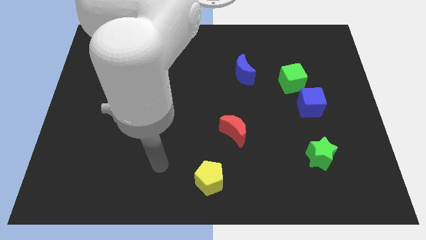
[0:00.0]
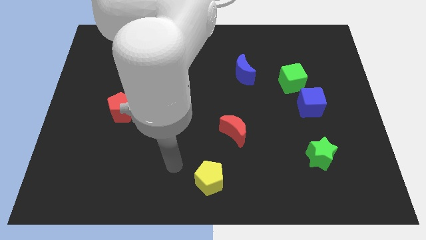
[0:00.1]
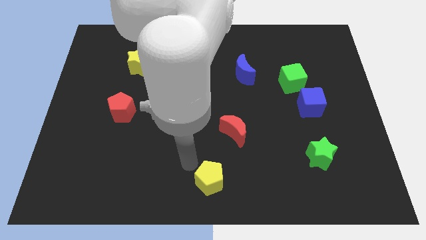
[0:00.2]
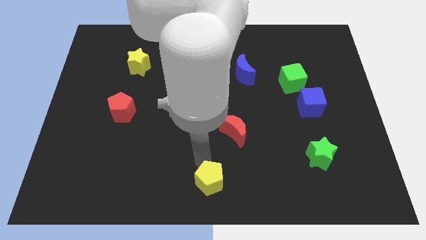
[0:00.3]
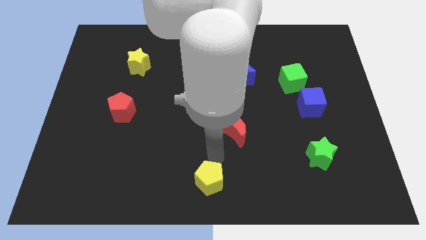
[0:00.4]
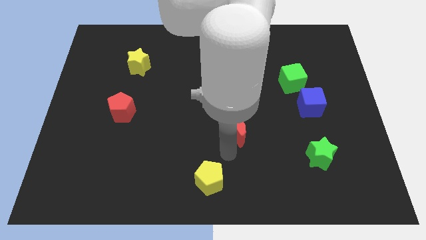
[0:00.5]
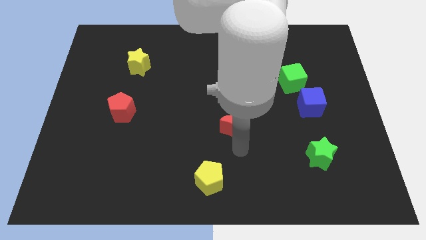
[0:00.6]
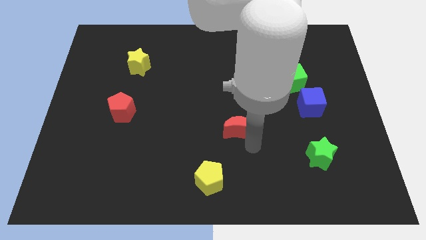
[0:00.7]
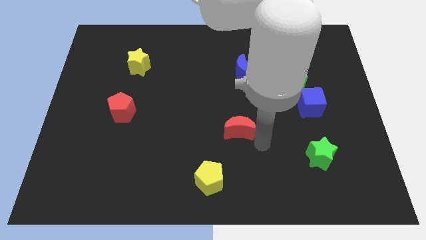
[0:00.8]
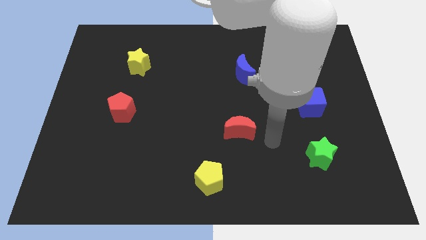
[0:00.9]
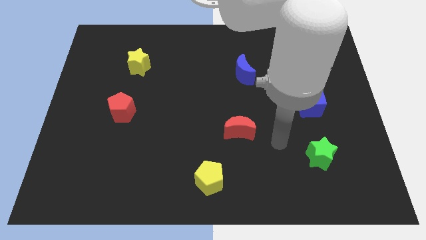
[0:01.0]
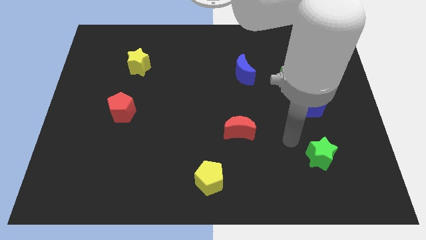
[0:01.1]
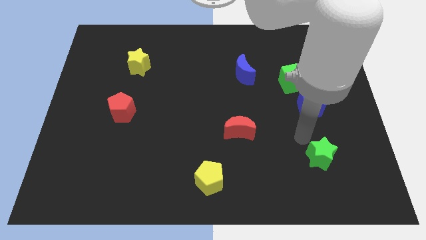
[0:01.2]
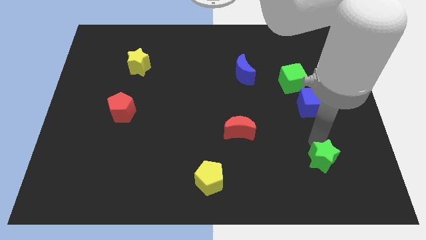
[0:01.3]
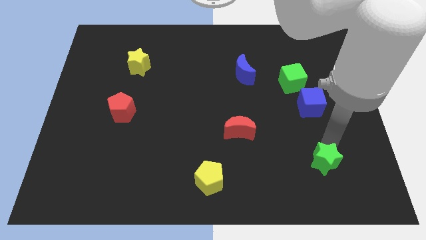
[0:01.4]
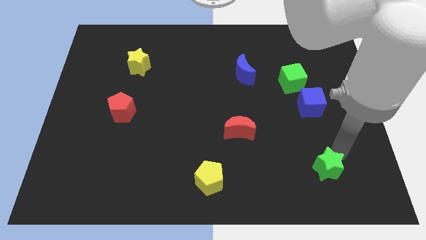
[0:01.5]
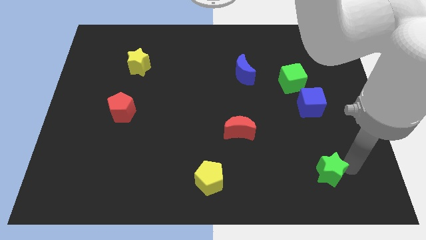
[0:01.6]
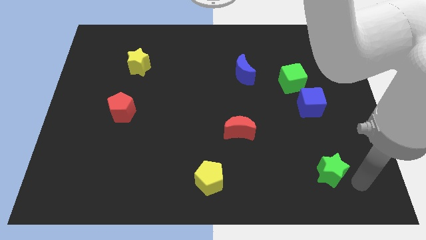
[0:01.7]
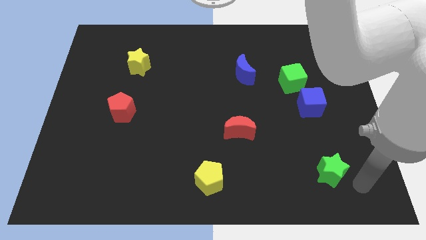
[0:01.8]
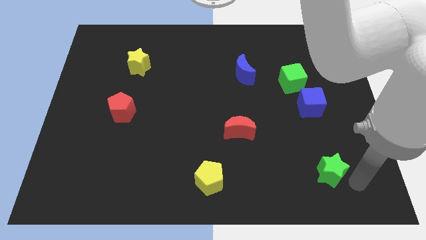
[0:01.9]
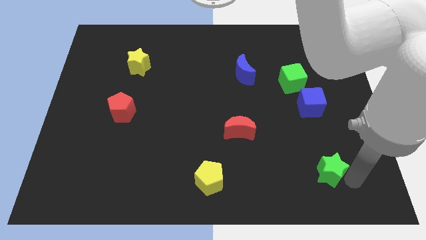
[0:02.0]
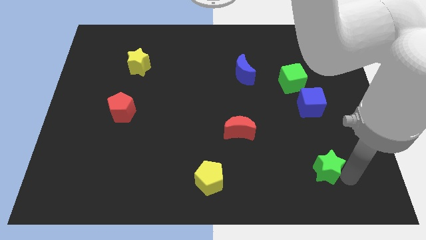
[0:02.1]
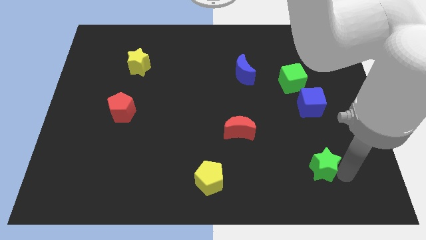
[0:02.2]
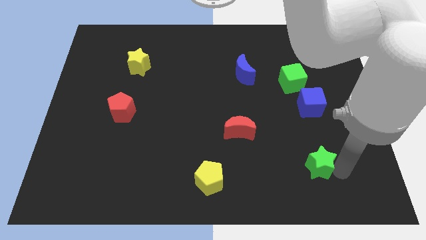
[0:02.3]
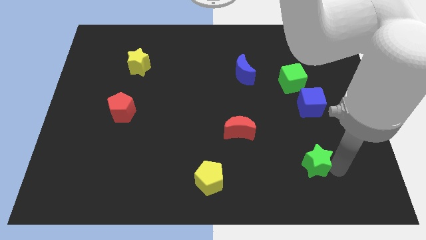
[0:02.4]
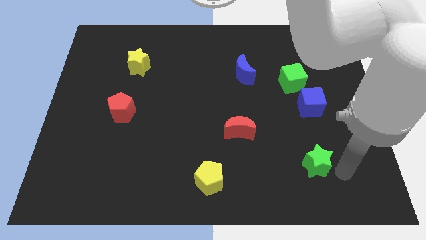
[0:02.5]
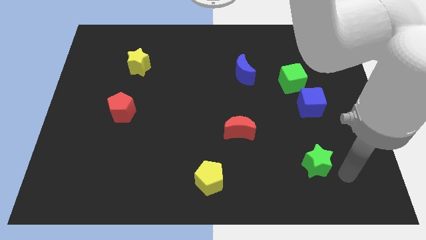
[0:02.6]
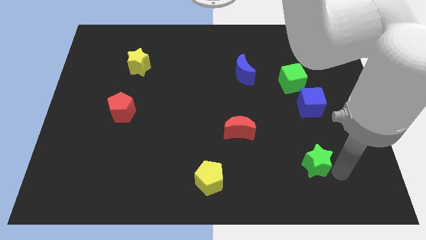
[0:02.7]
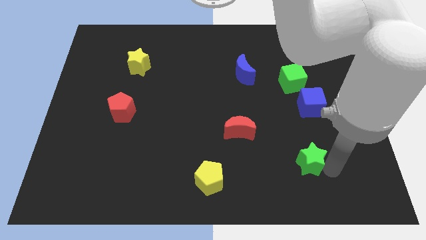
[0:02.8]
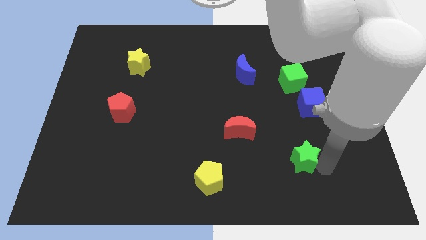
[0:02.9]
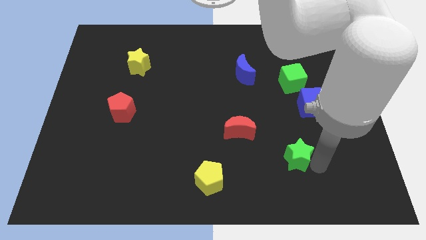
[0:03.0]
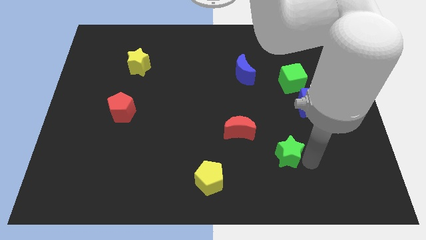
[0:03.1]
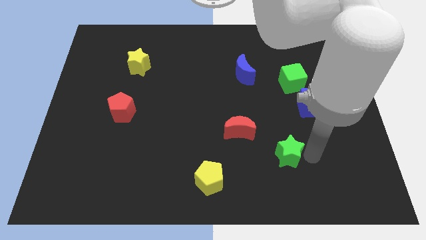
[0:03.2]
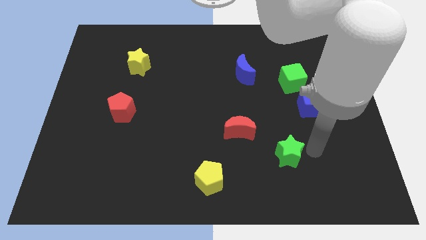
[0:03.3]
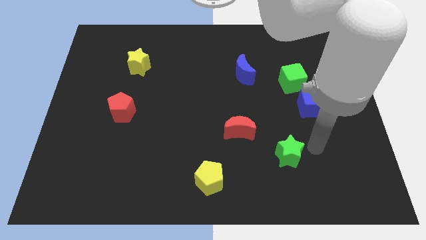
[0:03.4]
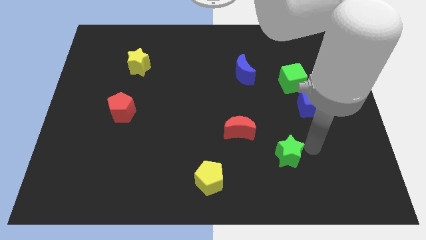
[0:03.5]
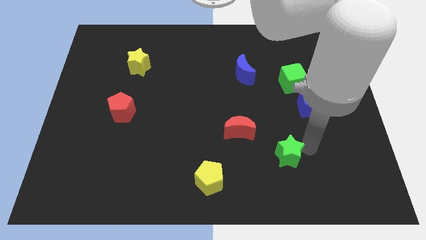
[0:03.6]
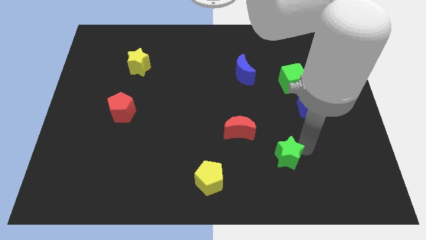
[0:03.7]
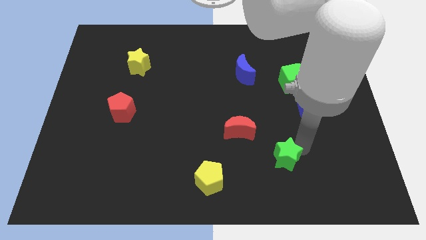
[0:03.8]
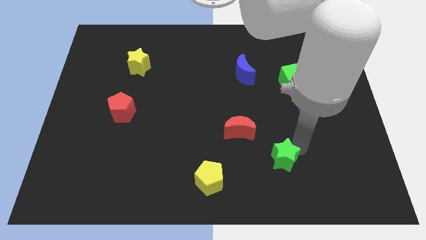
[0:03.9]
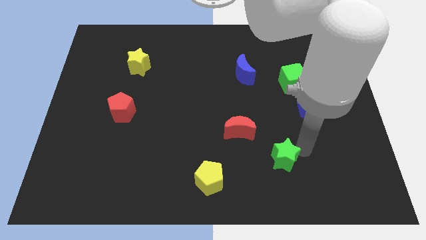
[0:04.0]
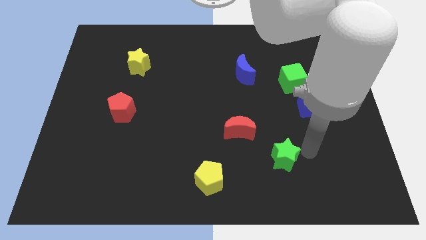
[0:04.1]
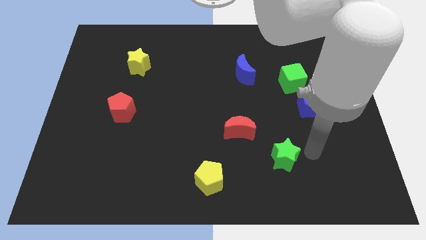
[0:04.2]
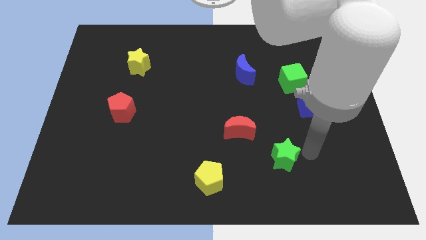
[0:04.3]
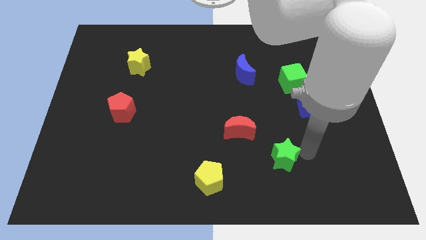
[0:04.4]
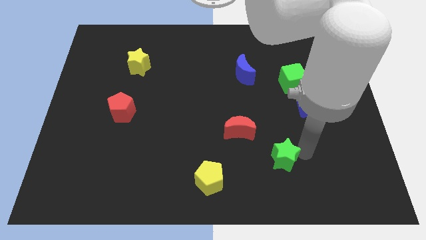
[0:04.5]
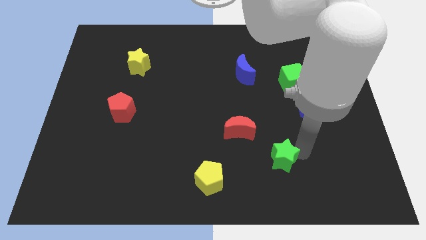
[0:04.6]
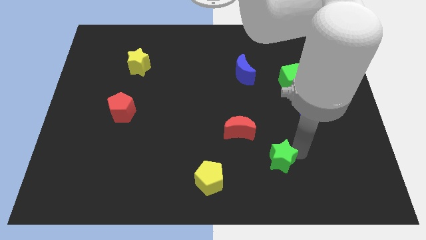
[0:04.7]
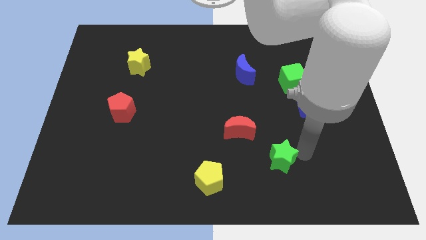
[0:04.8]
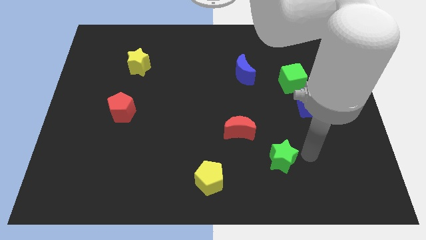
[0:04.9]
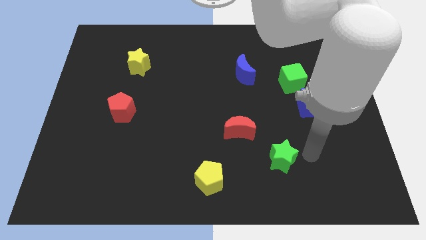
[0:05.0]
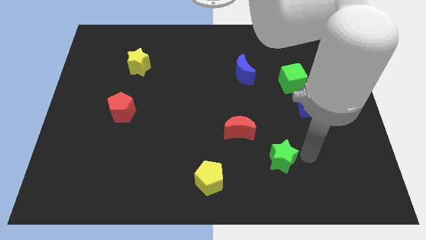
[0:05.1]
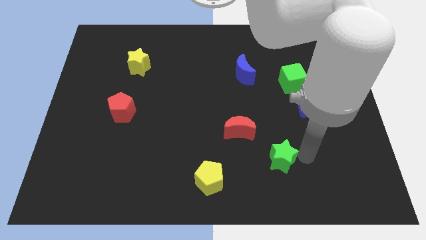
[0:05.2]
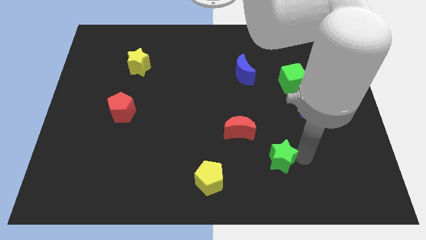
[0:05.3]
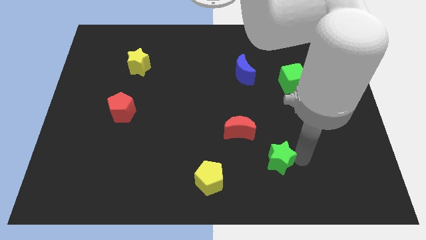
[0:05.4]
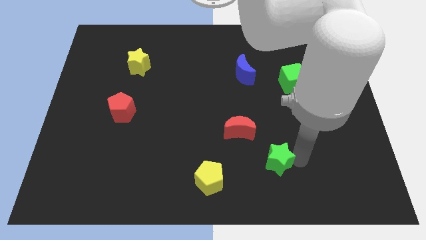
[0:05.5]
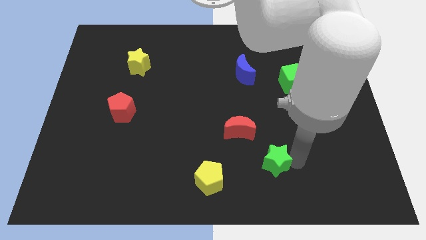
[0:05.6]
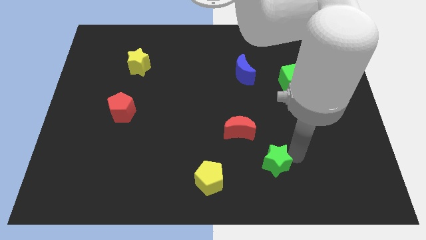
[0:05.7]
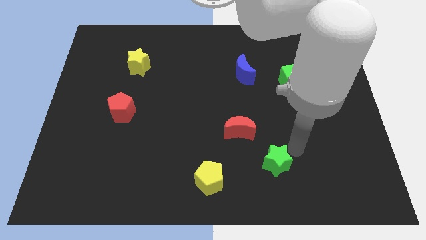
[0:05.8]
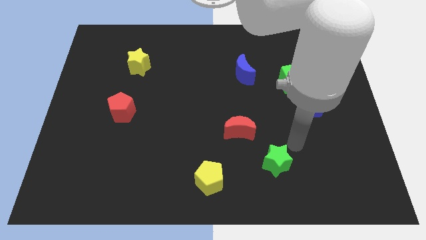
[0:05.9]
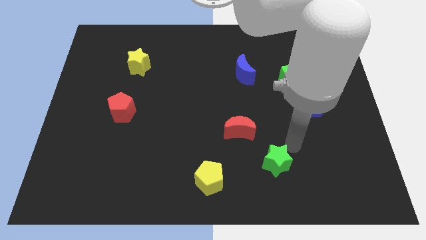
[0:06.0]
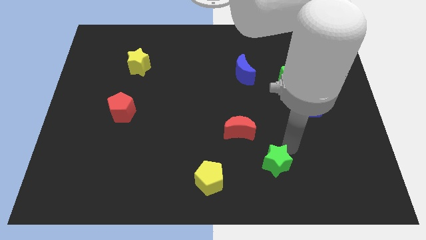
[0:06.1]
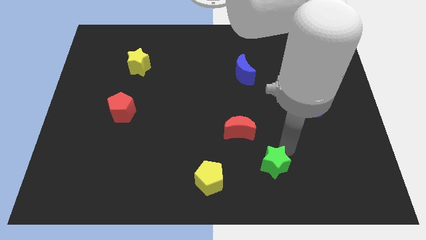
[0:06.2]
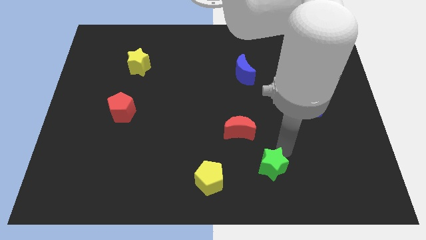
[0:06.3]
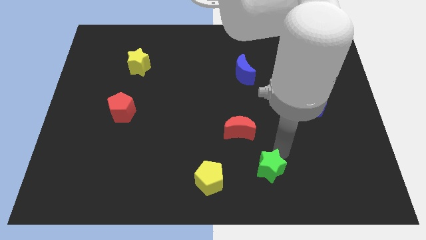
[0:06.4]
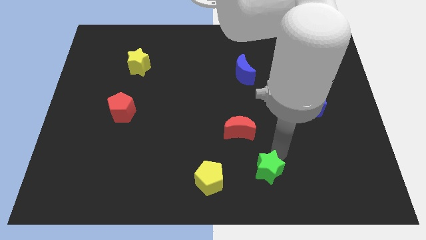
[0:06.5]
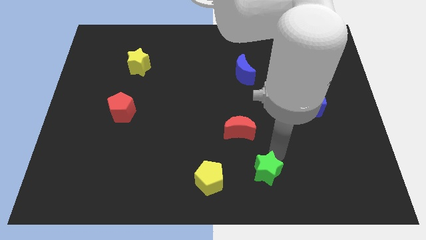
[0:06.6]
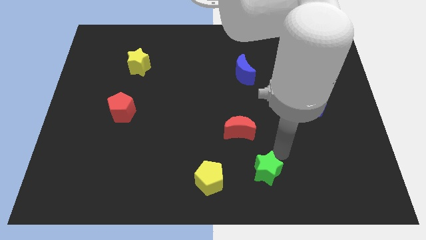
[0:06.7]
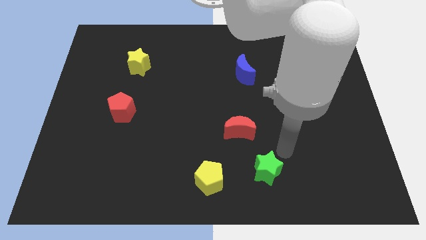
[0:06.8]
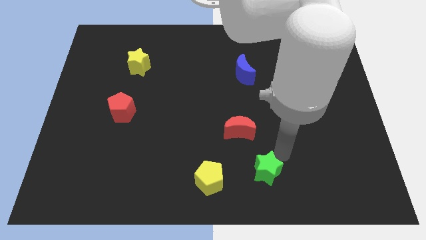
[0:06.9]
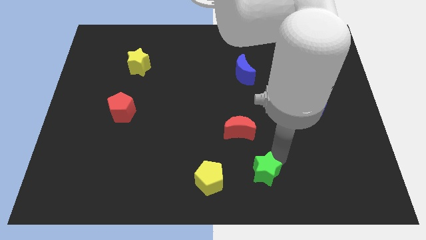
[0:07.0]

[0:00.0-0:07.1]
push the green star to the bottom
